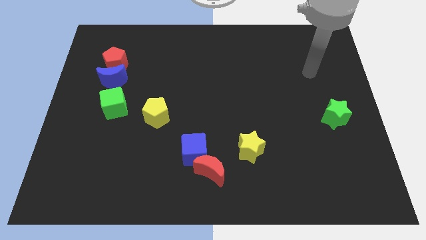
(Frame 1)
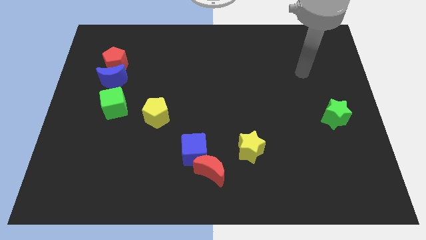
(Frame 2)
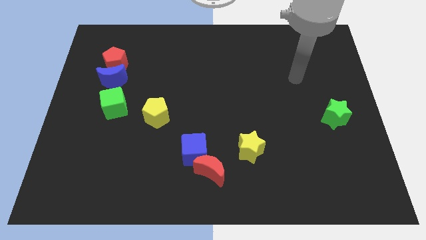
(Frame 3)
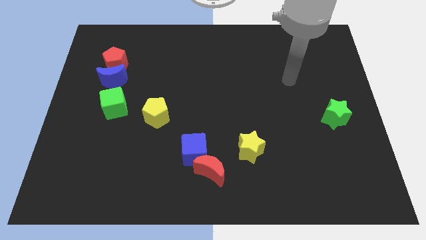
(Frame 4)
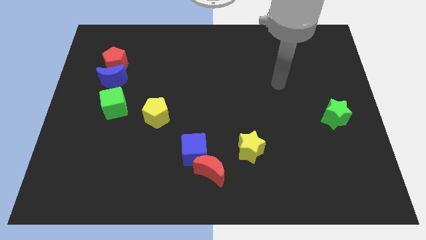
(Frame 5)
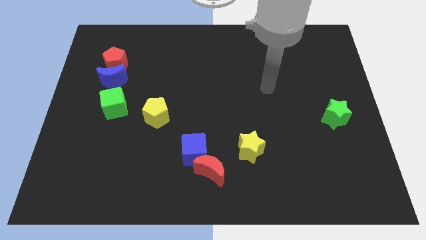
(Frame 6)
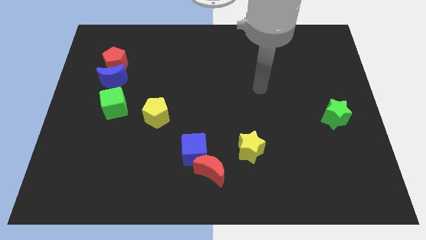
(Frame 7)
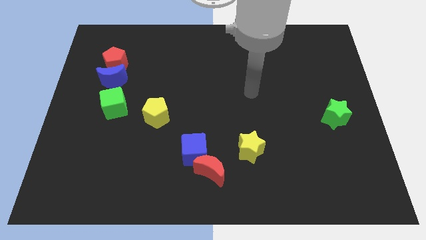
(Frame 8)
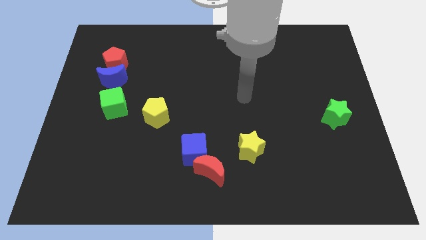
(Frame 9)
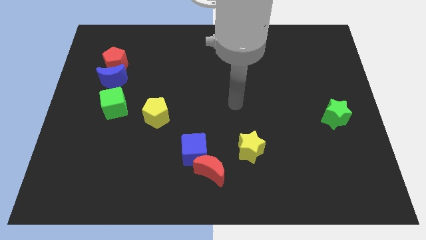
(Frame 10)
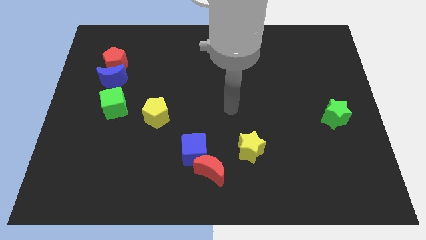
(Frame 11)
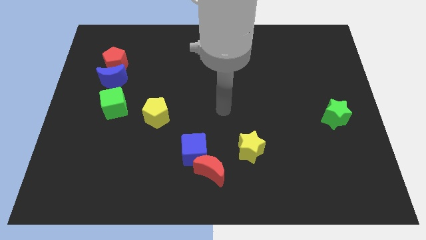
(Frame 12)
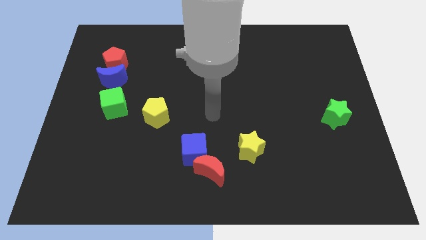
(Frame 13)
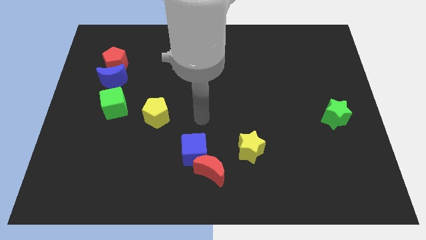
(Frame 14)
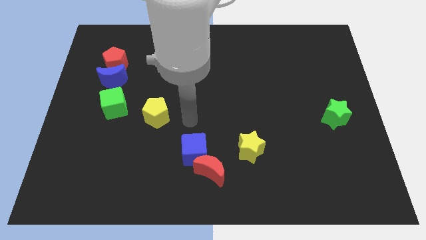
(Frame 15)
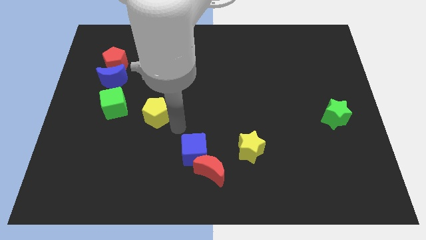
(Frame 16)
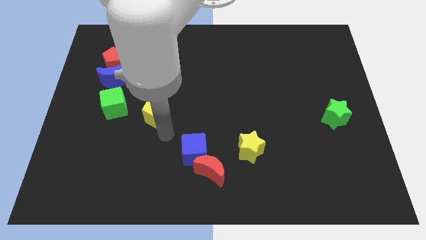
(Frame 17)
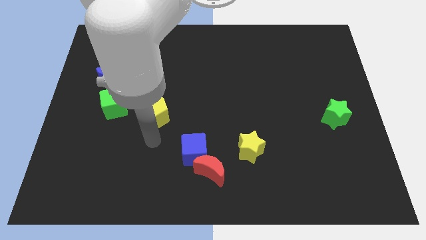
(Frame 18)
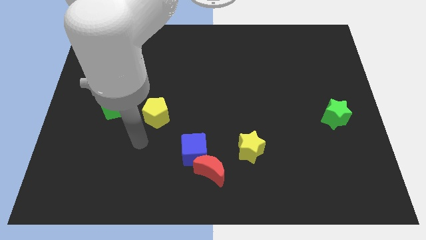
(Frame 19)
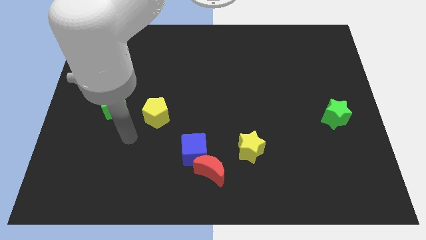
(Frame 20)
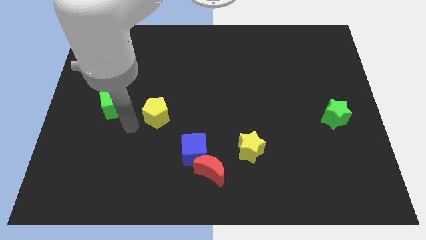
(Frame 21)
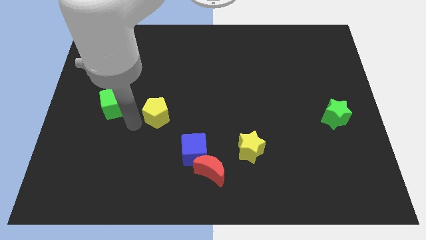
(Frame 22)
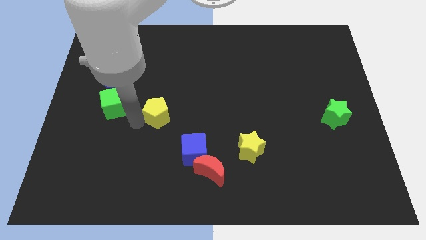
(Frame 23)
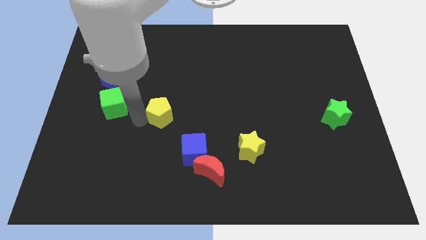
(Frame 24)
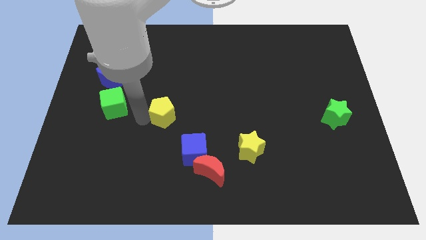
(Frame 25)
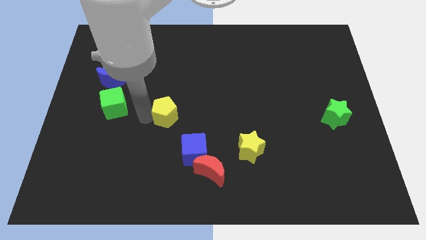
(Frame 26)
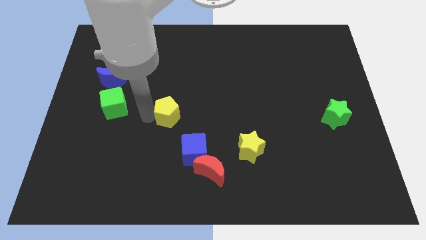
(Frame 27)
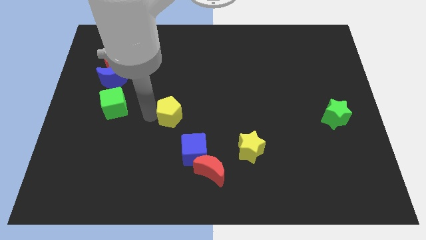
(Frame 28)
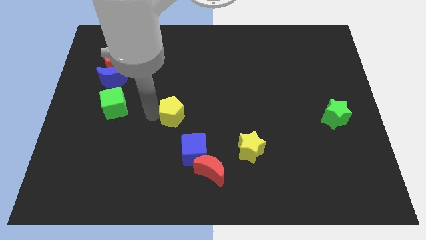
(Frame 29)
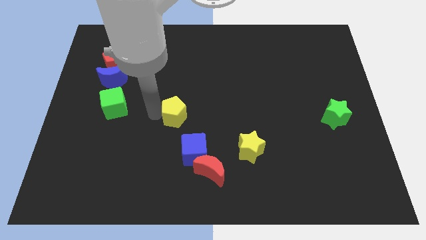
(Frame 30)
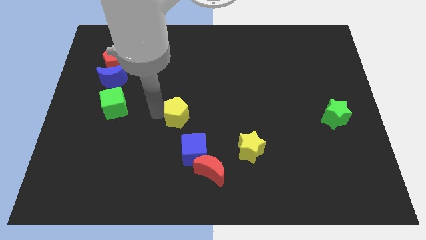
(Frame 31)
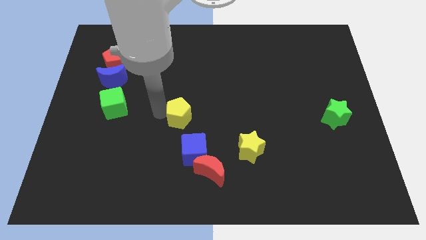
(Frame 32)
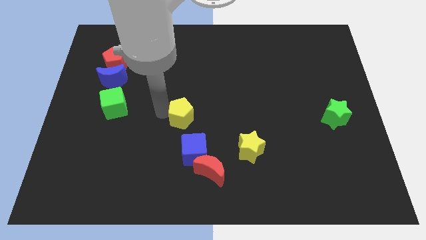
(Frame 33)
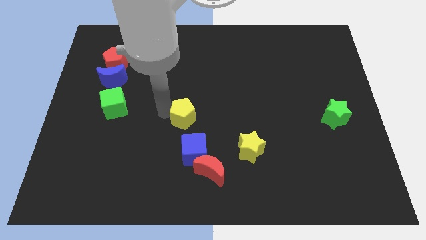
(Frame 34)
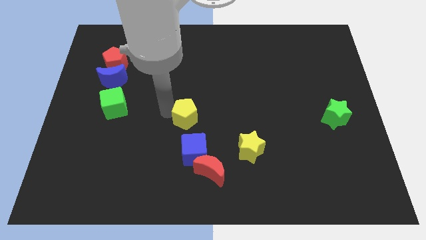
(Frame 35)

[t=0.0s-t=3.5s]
slightly slide the yellow pentagon right

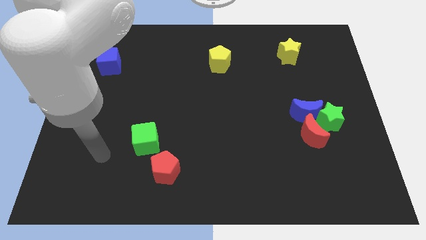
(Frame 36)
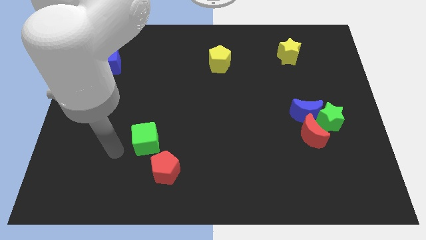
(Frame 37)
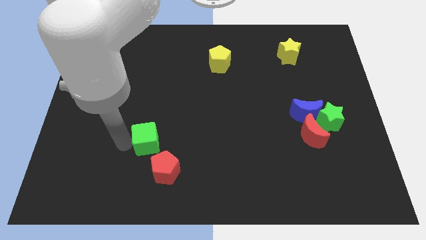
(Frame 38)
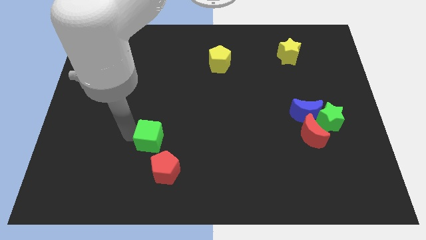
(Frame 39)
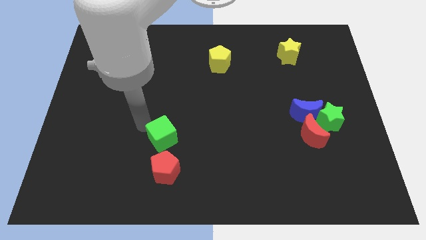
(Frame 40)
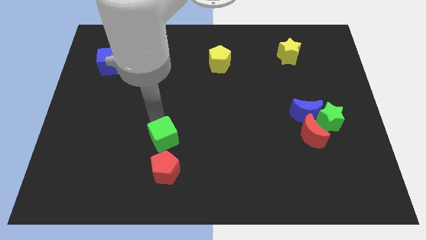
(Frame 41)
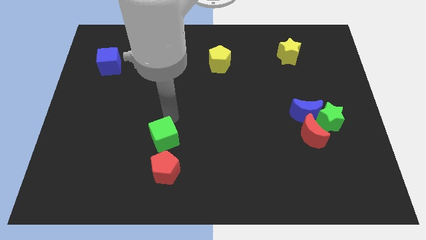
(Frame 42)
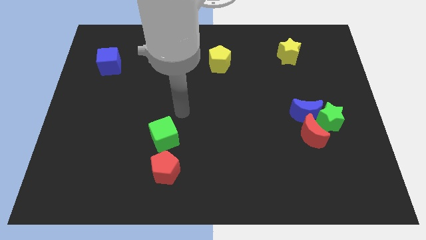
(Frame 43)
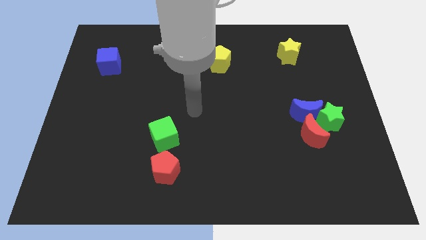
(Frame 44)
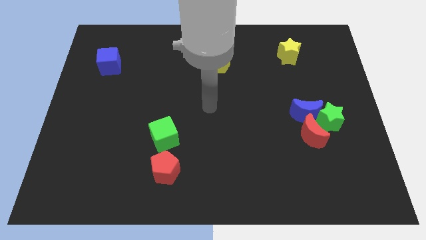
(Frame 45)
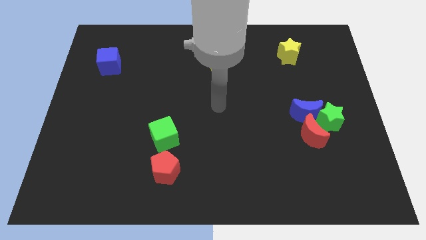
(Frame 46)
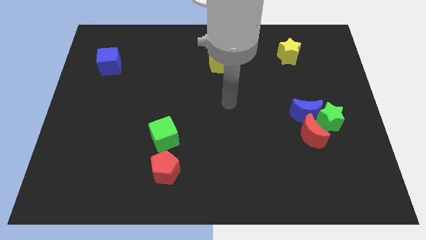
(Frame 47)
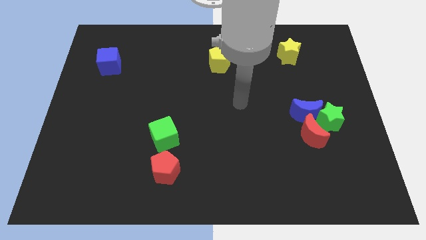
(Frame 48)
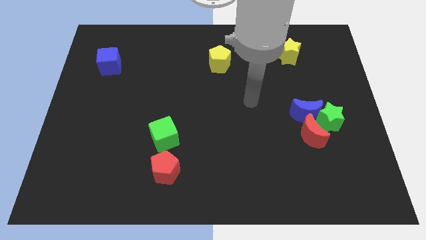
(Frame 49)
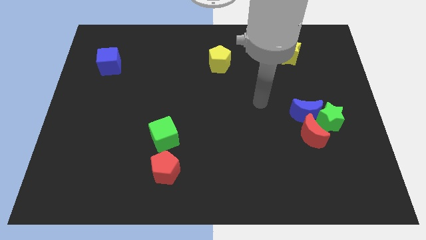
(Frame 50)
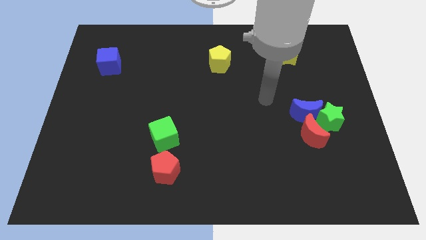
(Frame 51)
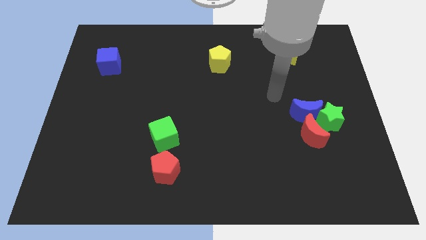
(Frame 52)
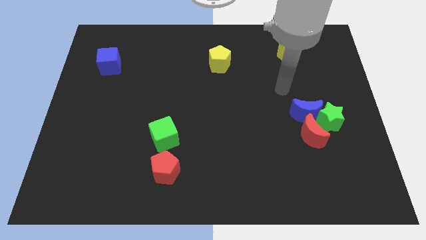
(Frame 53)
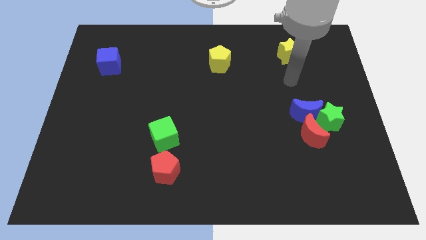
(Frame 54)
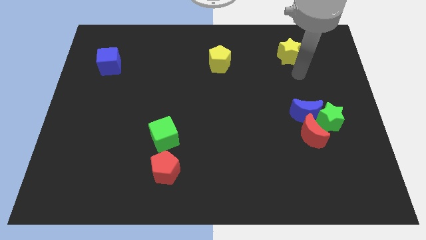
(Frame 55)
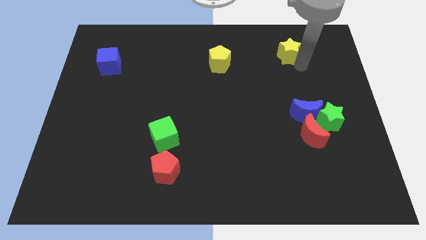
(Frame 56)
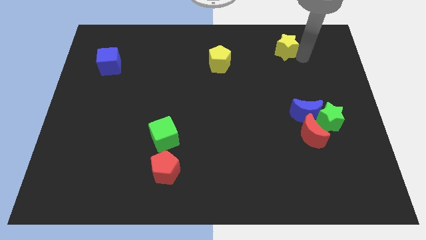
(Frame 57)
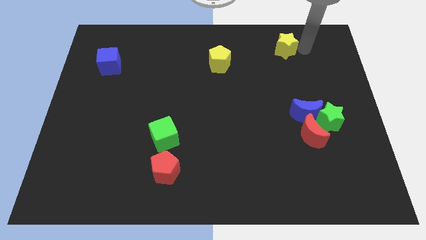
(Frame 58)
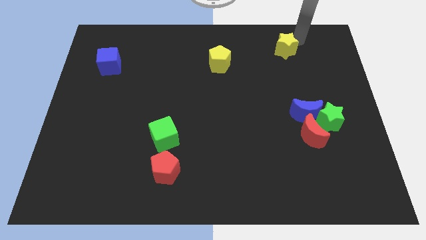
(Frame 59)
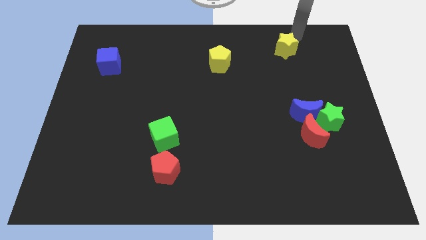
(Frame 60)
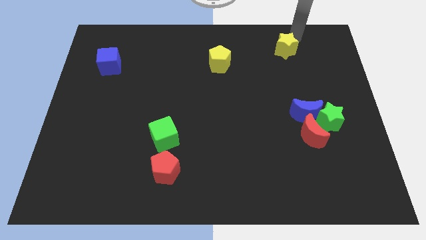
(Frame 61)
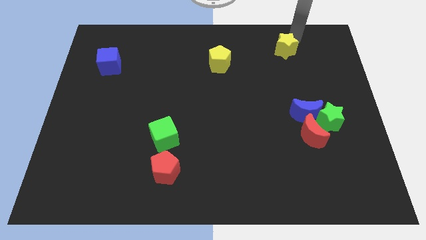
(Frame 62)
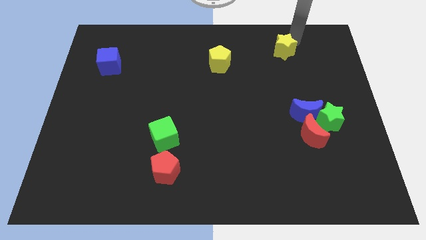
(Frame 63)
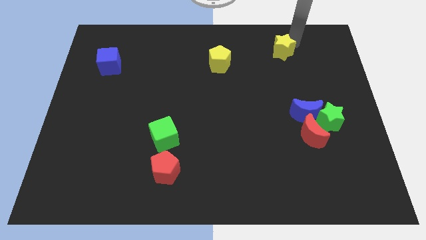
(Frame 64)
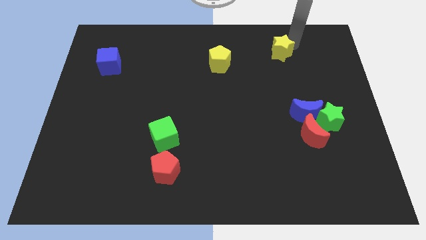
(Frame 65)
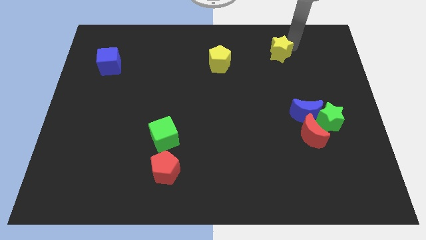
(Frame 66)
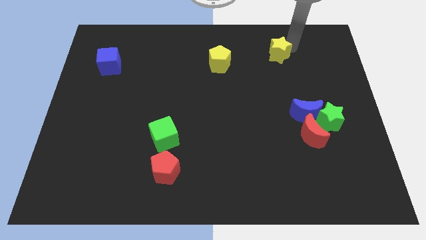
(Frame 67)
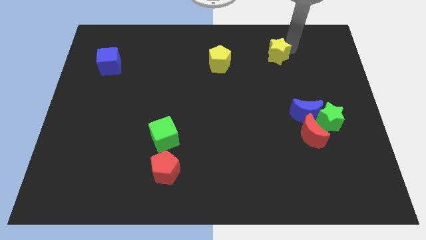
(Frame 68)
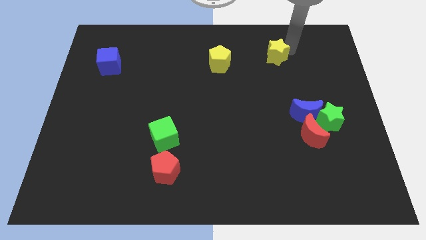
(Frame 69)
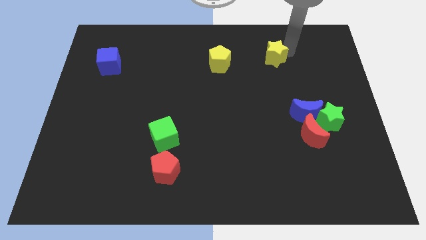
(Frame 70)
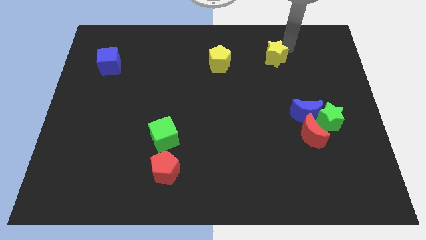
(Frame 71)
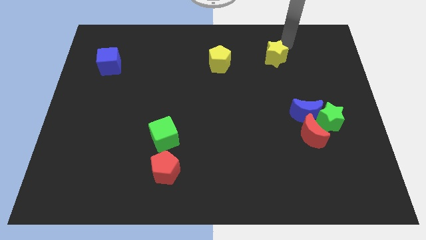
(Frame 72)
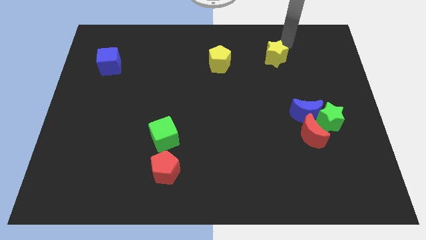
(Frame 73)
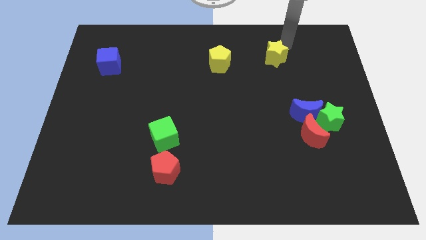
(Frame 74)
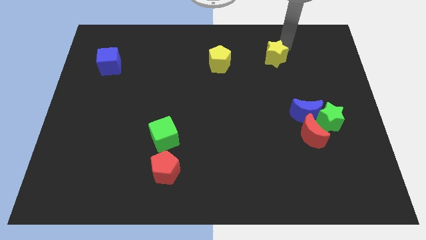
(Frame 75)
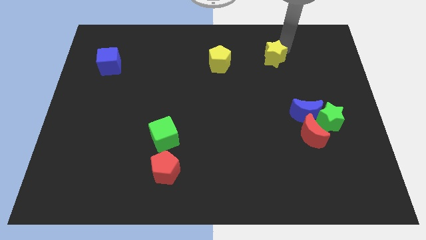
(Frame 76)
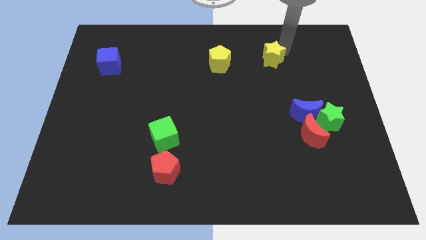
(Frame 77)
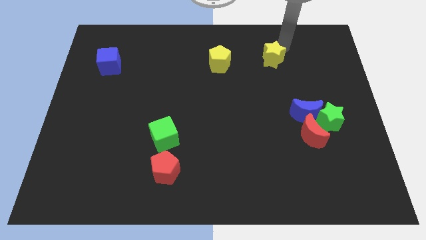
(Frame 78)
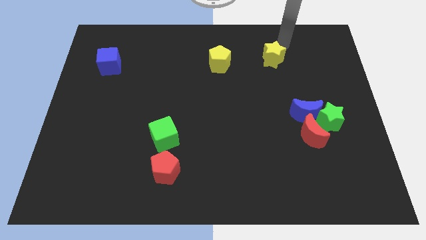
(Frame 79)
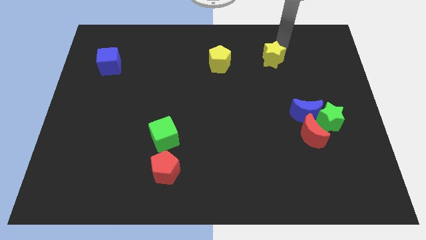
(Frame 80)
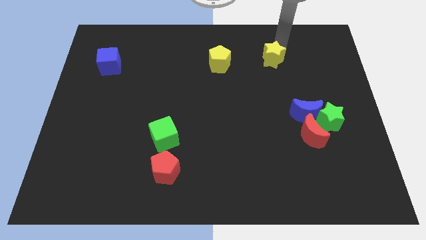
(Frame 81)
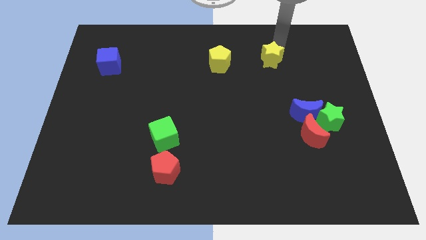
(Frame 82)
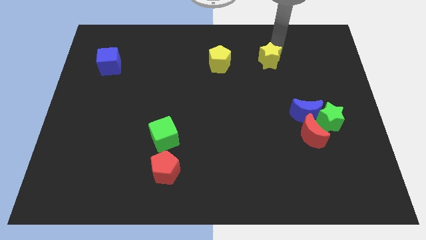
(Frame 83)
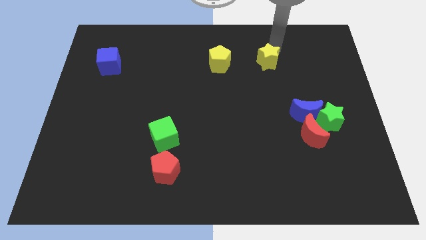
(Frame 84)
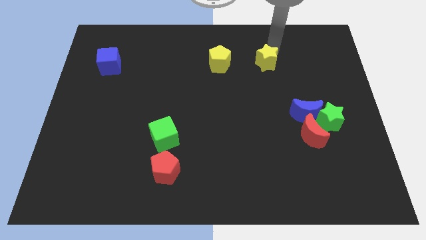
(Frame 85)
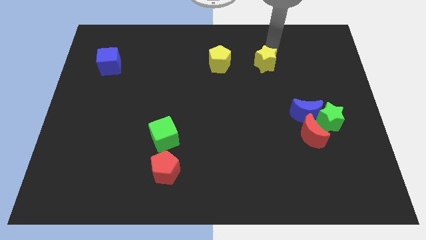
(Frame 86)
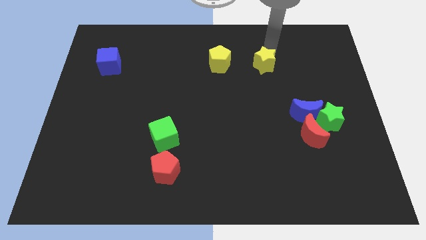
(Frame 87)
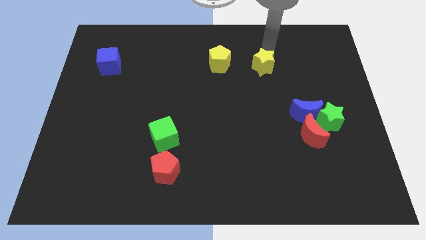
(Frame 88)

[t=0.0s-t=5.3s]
push the yellow star a little bit down and then to the left
